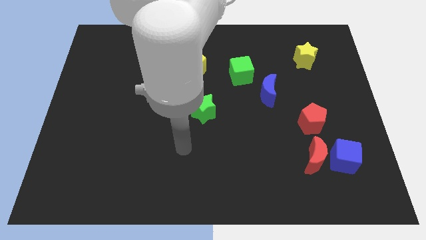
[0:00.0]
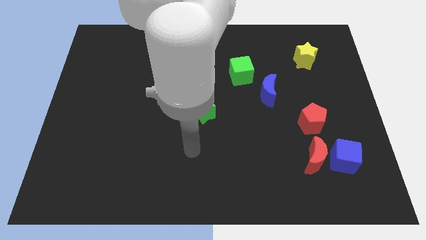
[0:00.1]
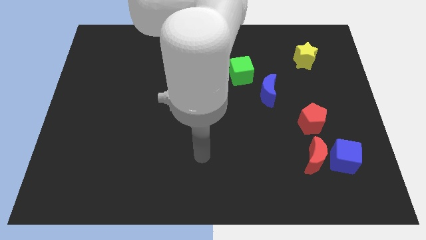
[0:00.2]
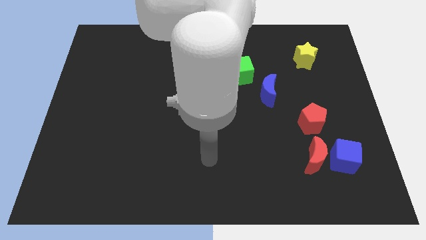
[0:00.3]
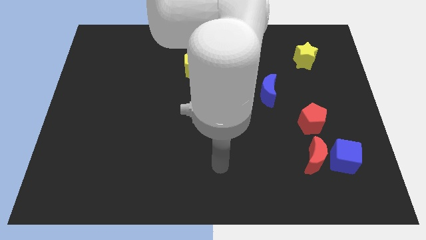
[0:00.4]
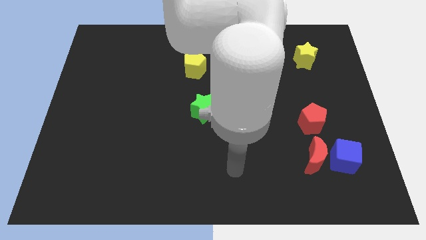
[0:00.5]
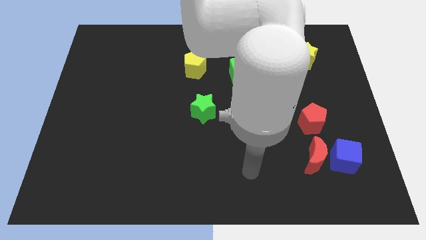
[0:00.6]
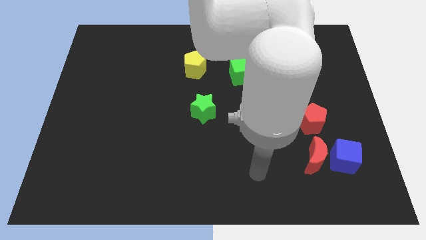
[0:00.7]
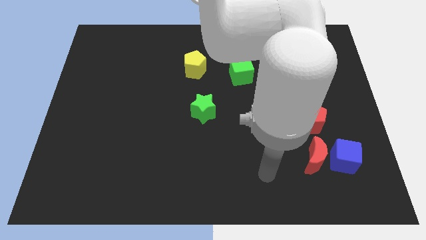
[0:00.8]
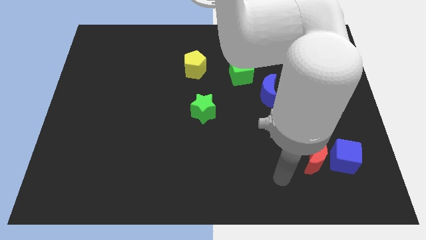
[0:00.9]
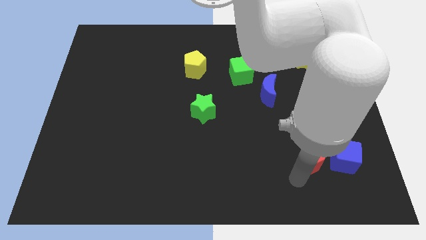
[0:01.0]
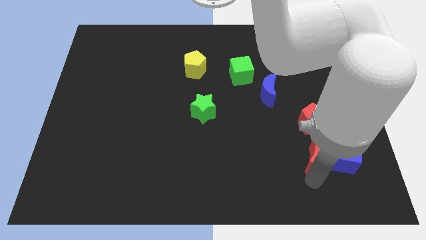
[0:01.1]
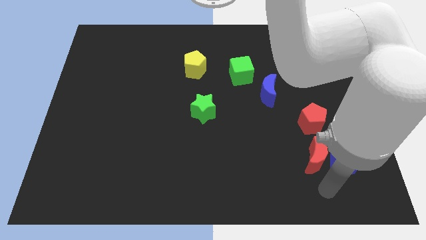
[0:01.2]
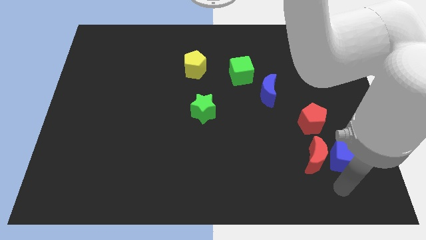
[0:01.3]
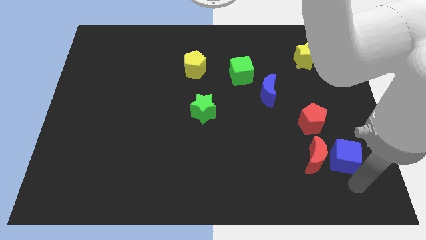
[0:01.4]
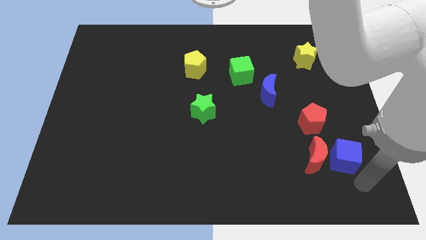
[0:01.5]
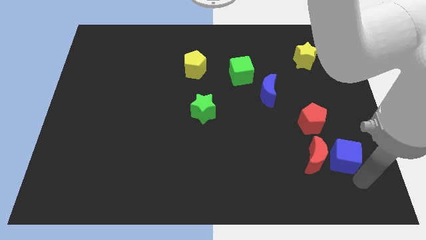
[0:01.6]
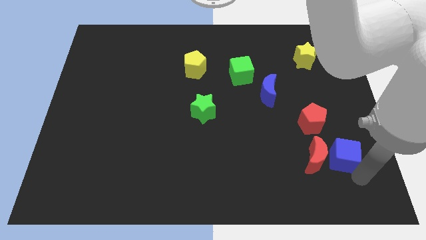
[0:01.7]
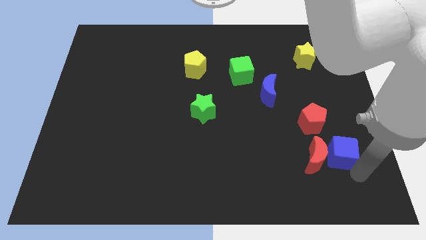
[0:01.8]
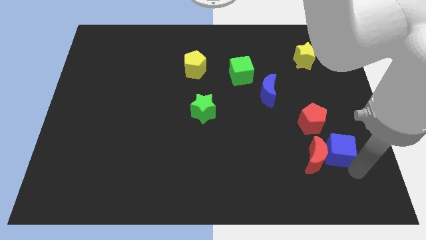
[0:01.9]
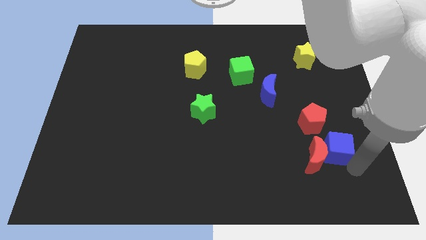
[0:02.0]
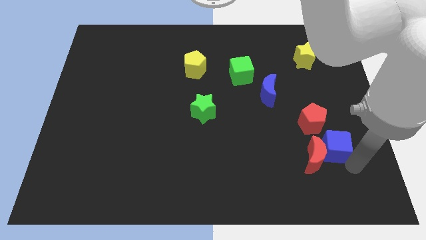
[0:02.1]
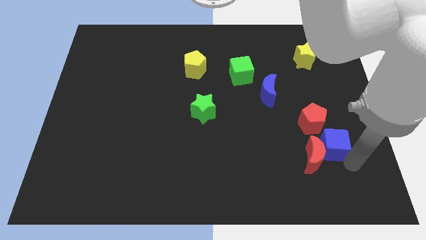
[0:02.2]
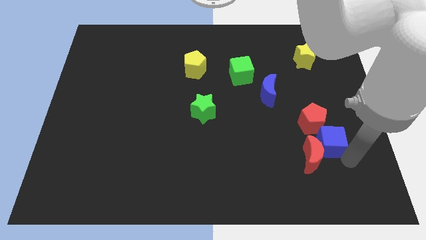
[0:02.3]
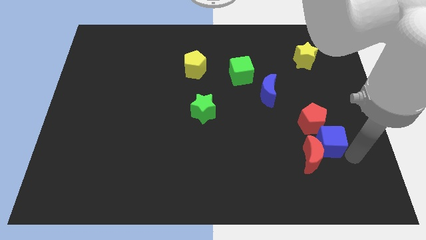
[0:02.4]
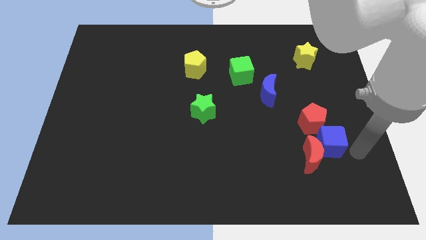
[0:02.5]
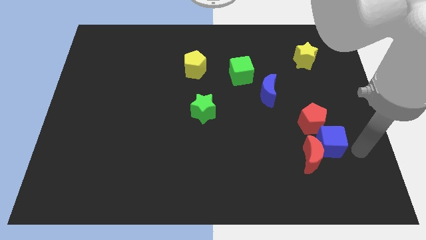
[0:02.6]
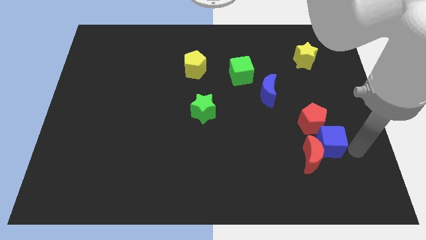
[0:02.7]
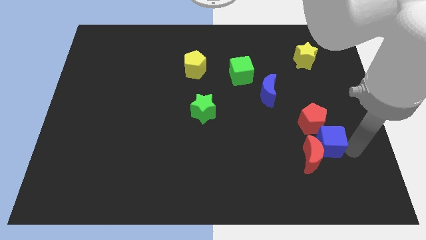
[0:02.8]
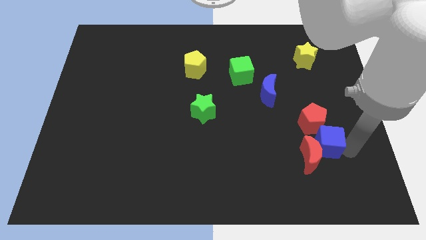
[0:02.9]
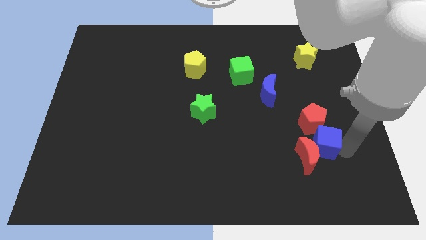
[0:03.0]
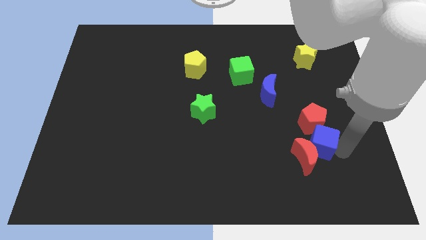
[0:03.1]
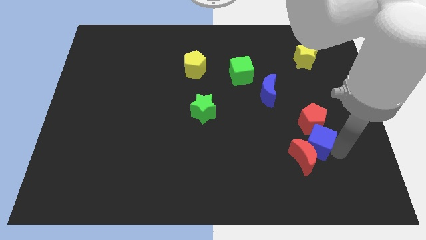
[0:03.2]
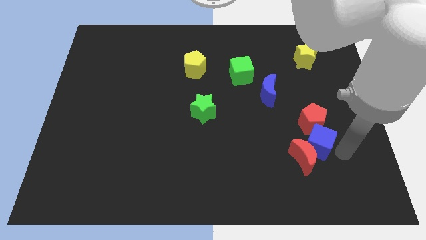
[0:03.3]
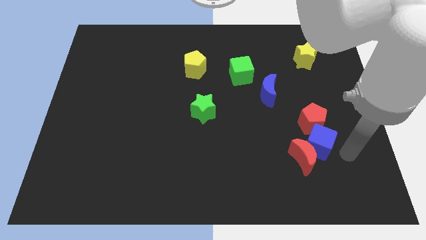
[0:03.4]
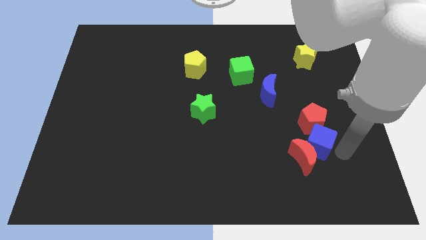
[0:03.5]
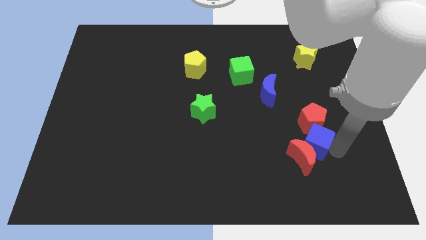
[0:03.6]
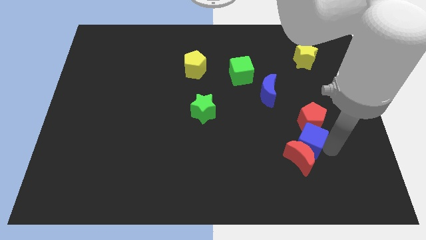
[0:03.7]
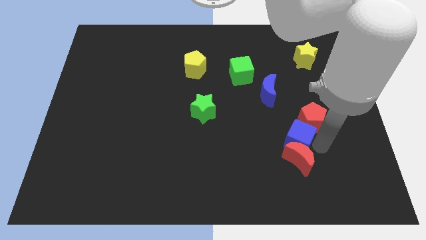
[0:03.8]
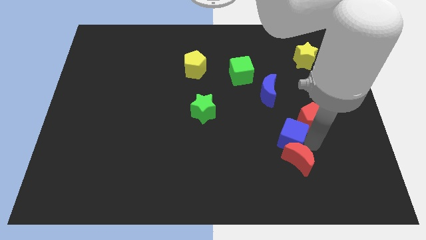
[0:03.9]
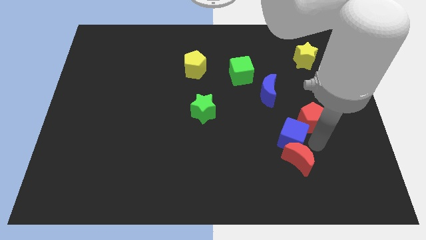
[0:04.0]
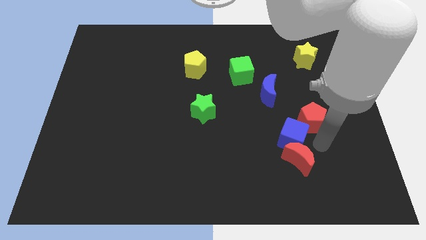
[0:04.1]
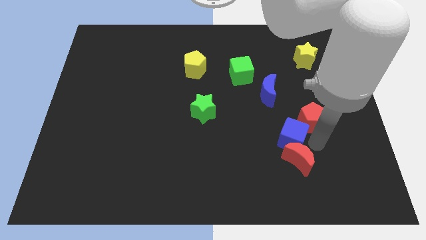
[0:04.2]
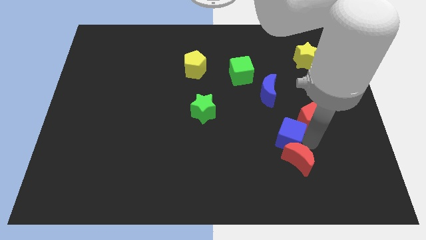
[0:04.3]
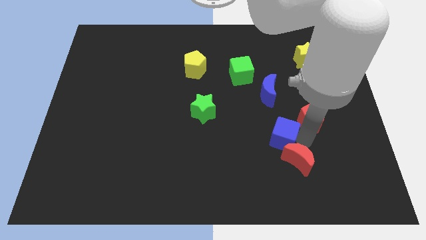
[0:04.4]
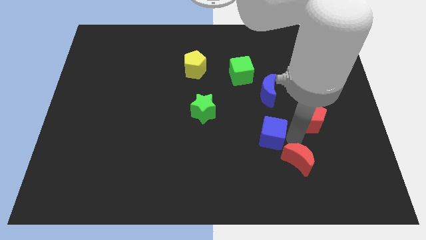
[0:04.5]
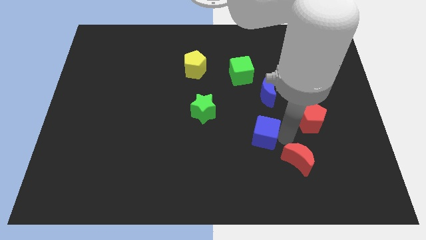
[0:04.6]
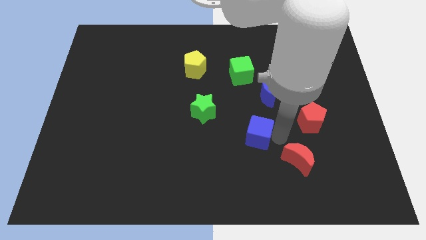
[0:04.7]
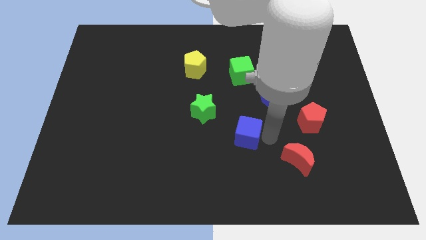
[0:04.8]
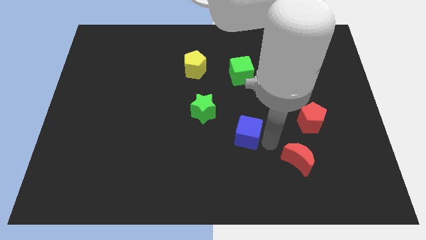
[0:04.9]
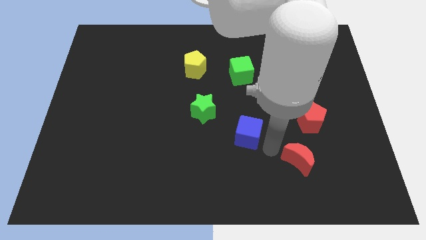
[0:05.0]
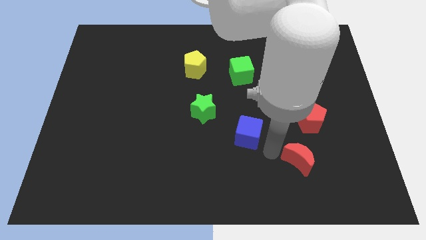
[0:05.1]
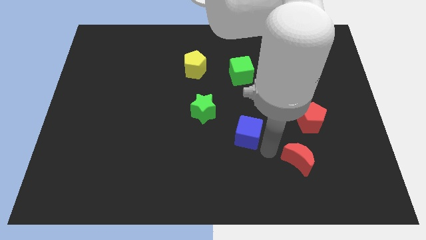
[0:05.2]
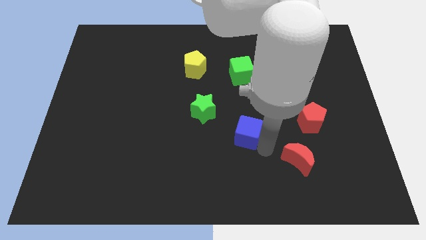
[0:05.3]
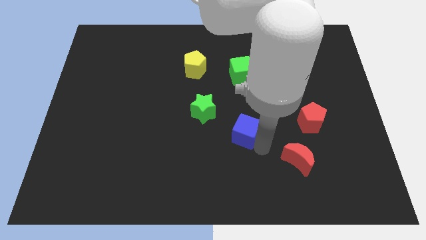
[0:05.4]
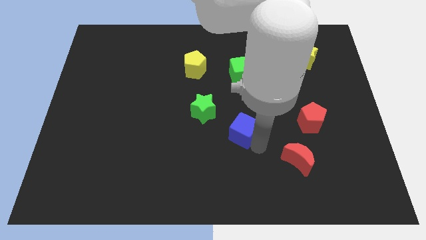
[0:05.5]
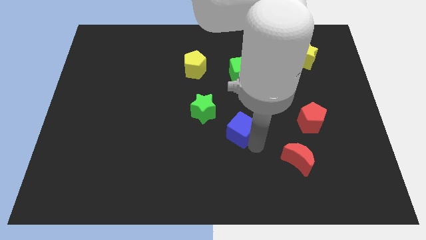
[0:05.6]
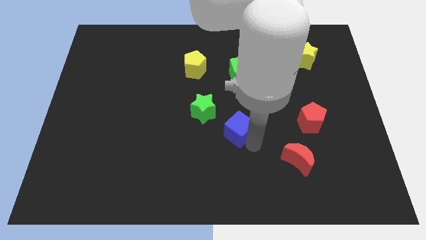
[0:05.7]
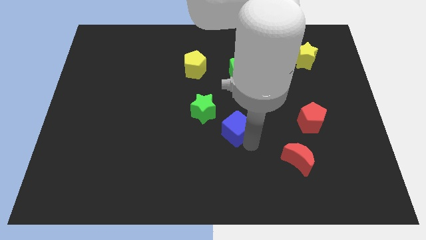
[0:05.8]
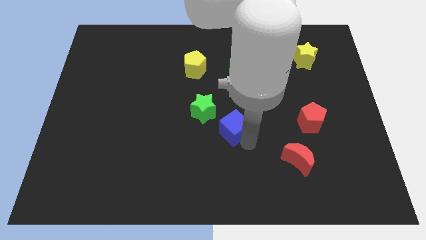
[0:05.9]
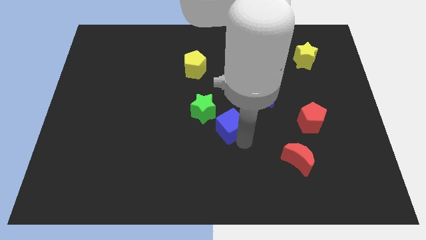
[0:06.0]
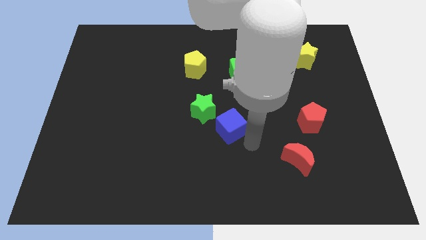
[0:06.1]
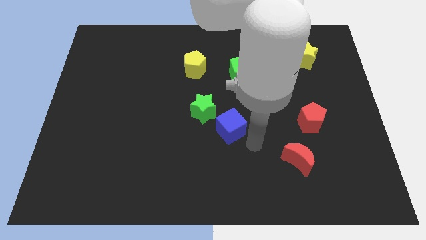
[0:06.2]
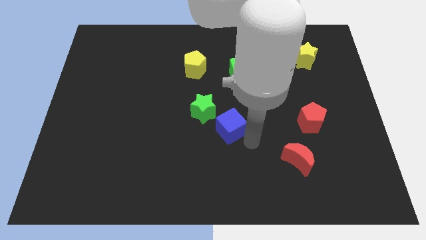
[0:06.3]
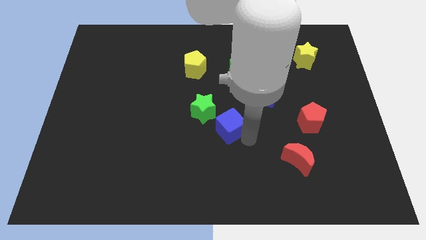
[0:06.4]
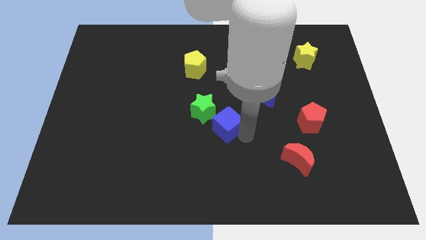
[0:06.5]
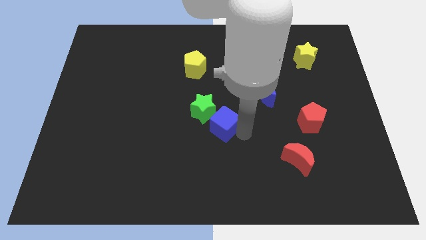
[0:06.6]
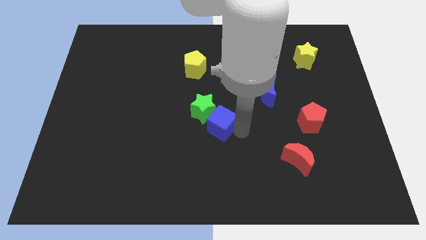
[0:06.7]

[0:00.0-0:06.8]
slide the blue cube to the green star

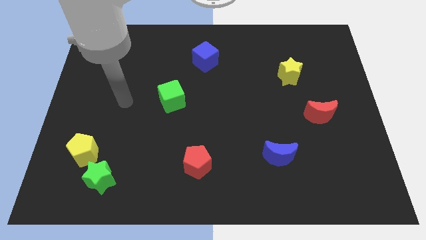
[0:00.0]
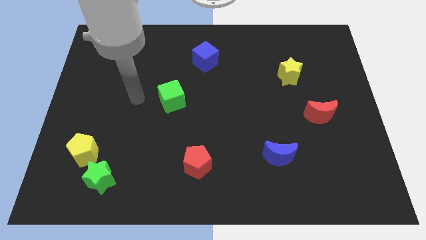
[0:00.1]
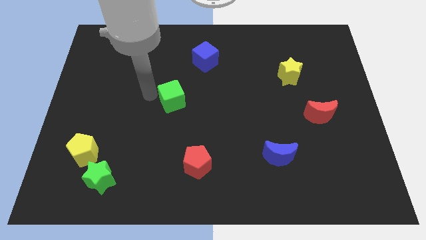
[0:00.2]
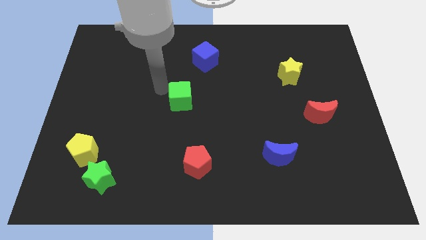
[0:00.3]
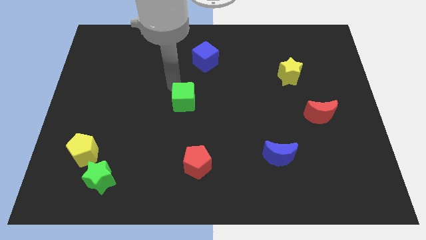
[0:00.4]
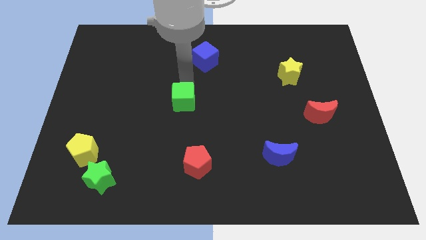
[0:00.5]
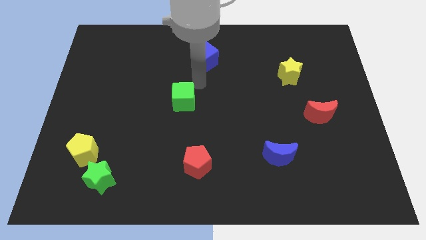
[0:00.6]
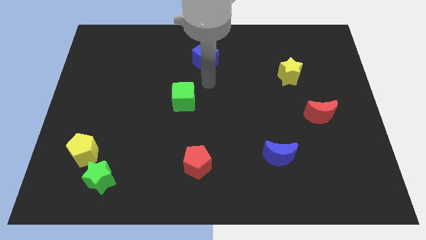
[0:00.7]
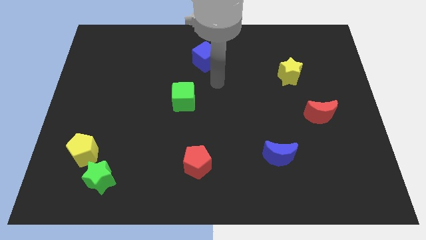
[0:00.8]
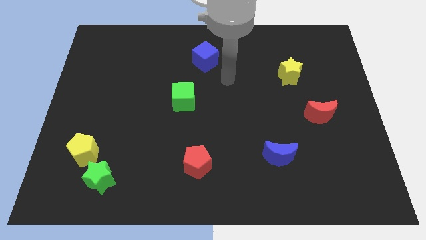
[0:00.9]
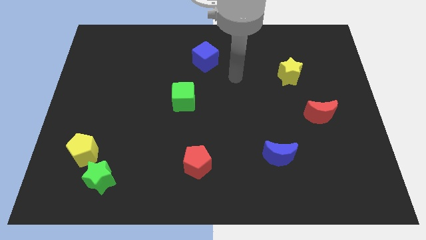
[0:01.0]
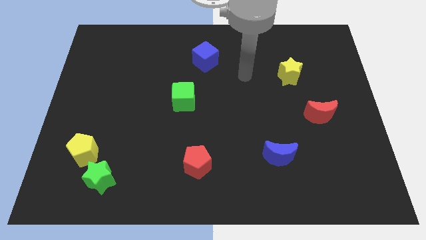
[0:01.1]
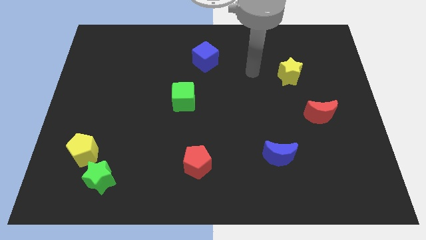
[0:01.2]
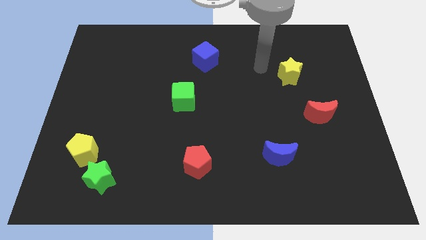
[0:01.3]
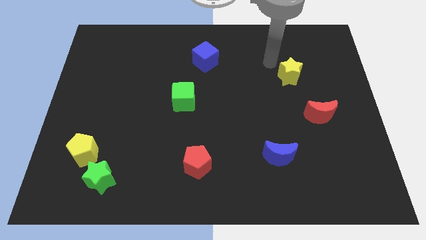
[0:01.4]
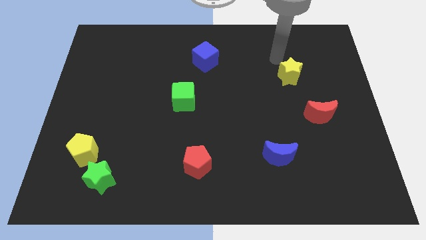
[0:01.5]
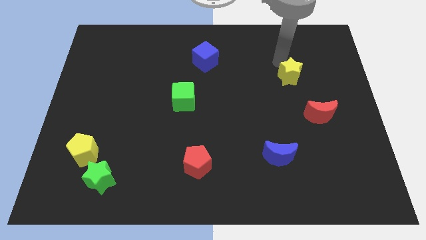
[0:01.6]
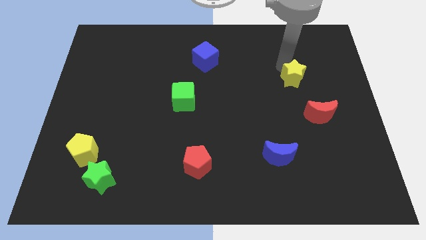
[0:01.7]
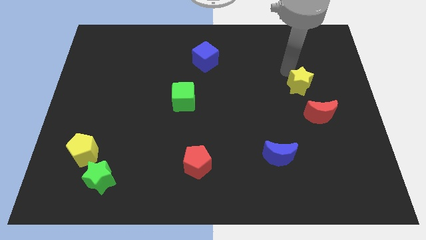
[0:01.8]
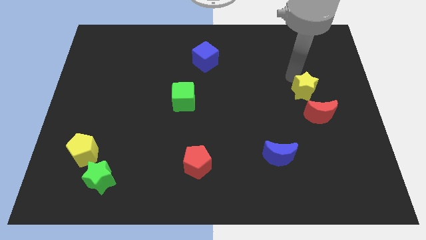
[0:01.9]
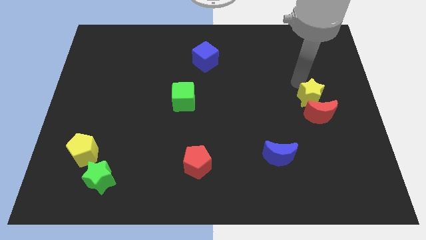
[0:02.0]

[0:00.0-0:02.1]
slide the yellow star to the red moon
